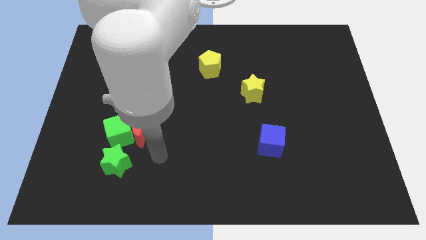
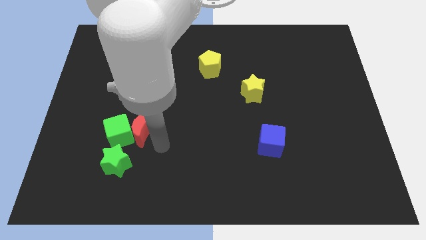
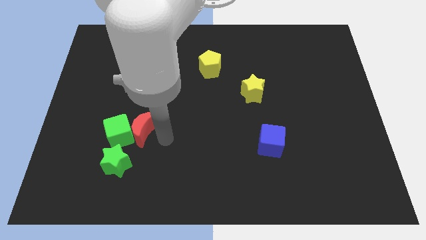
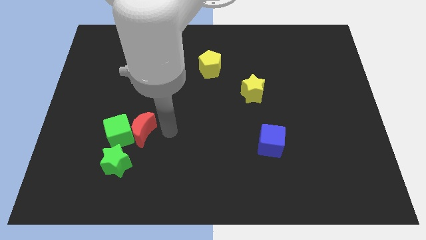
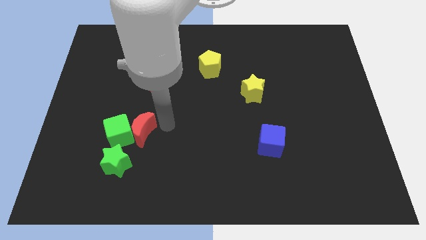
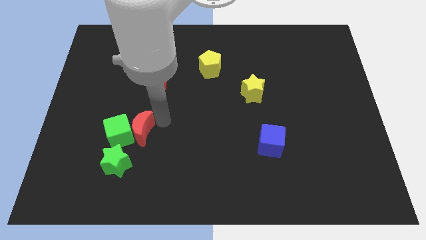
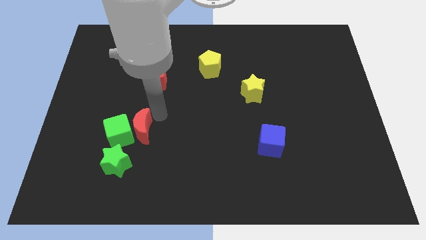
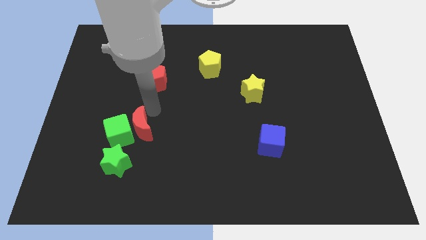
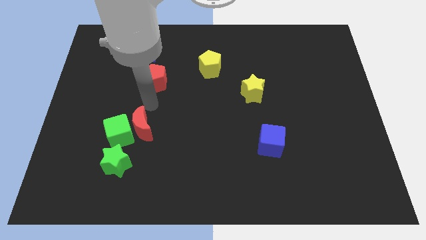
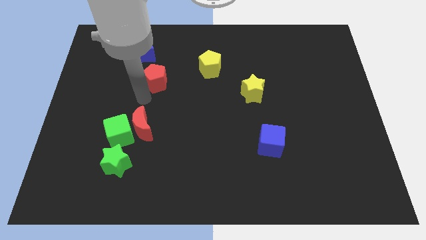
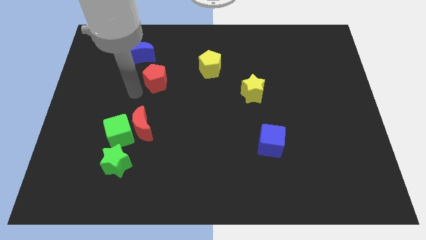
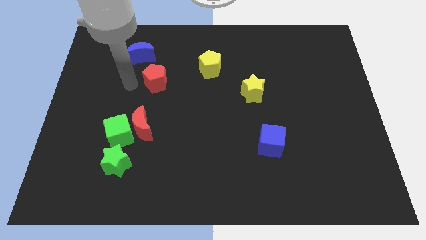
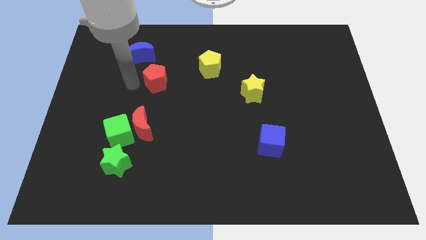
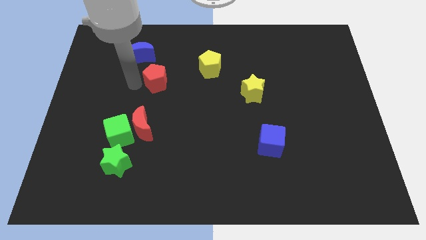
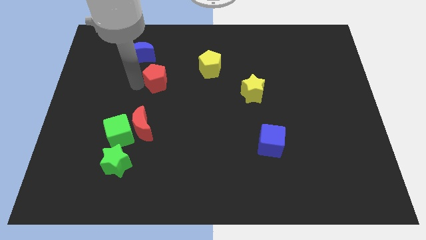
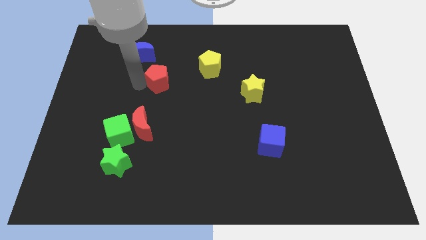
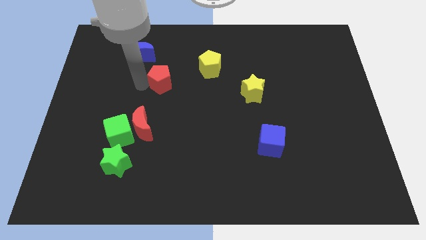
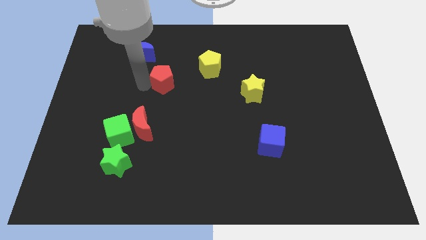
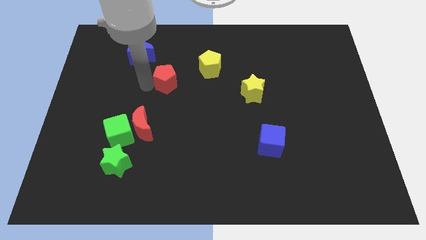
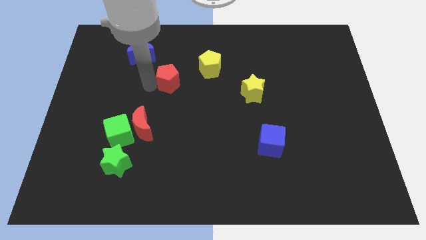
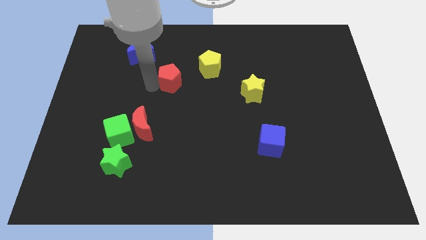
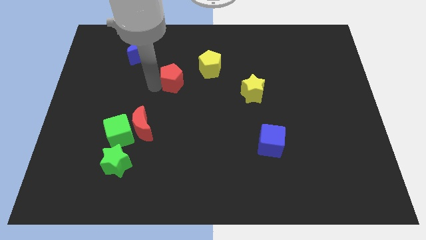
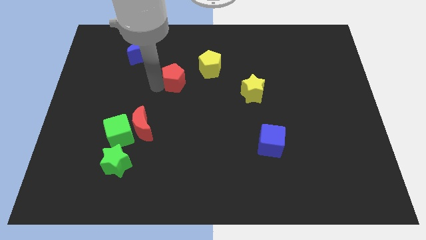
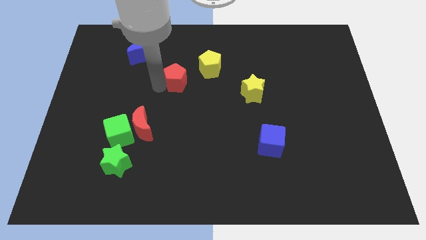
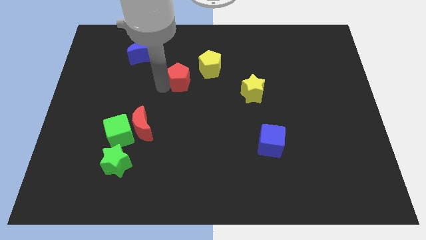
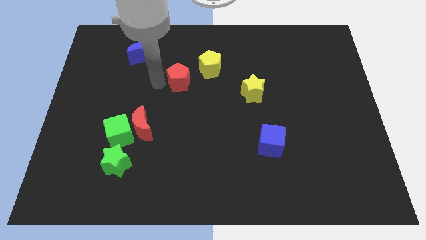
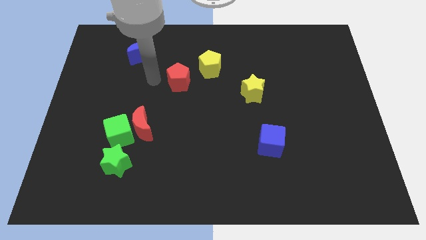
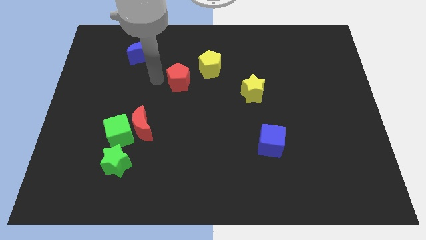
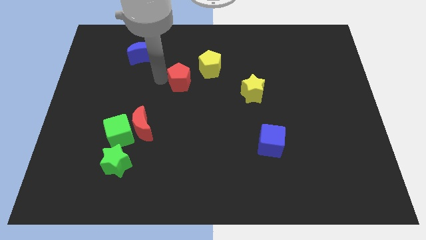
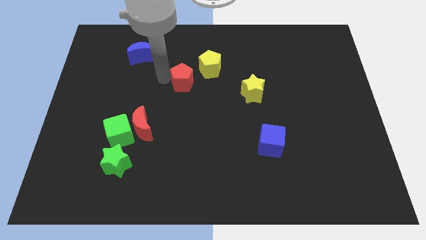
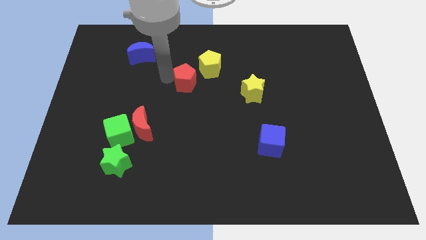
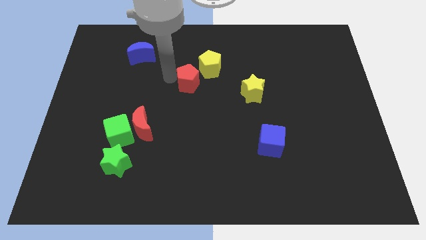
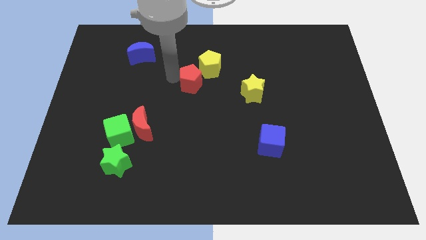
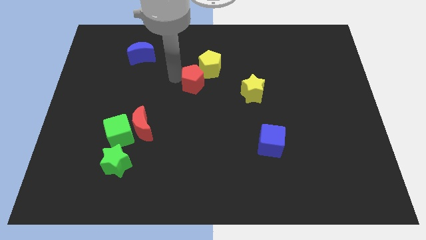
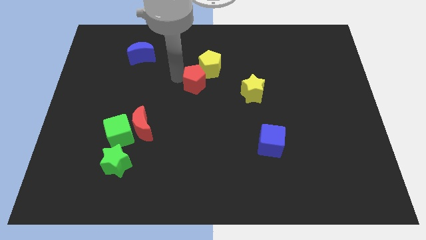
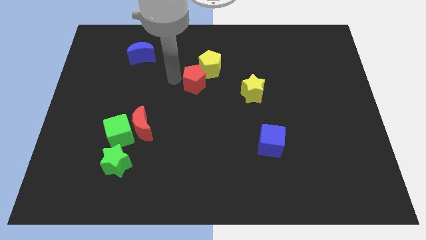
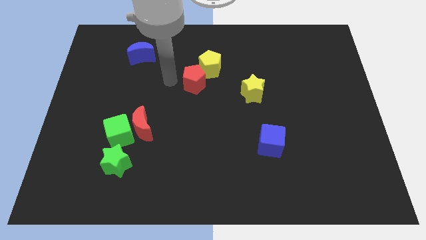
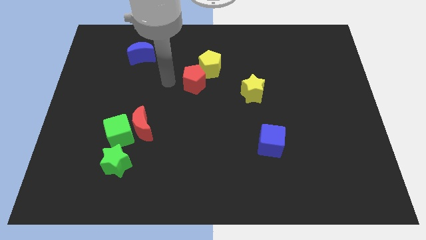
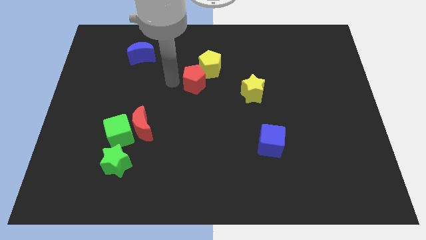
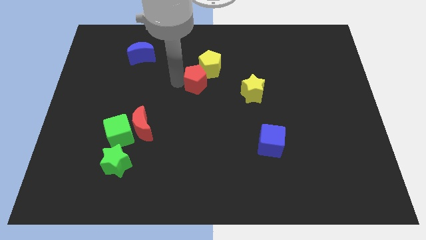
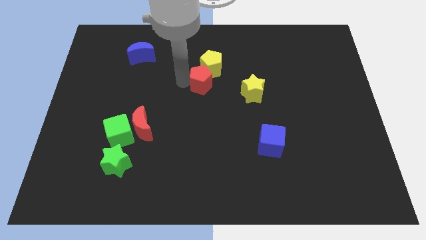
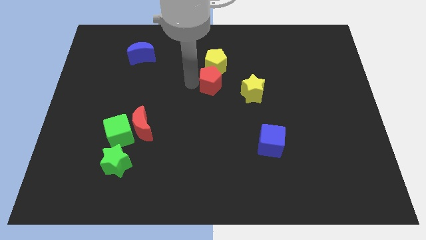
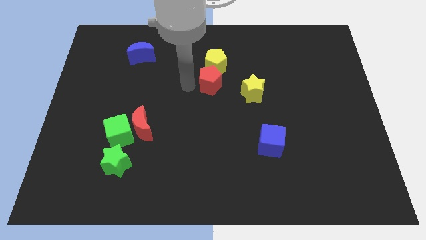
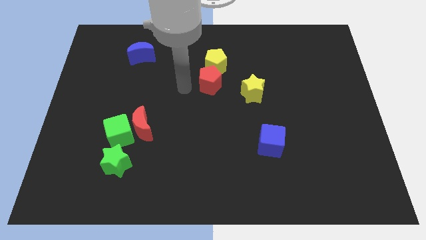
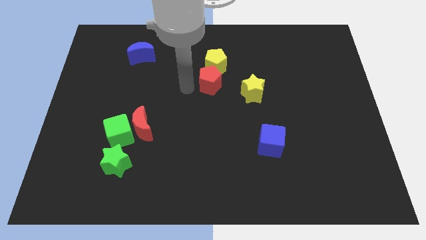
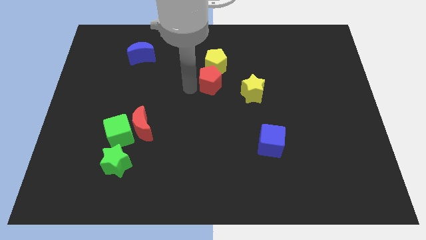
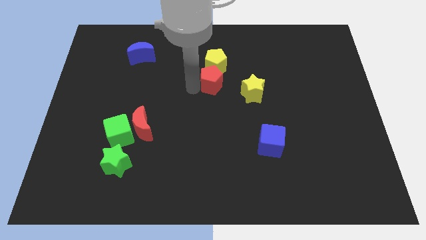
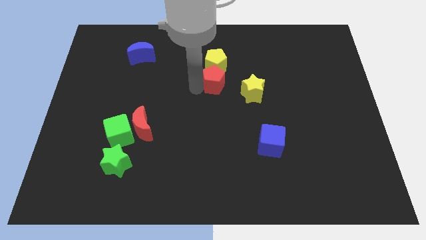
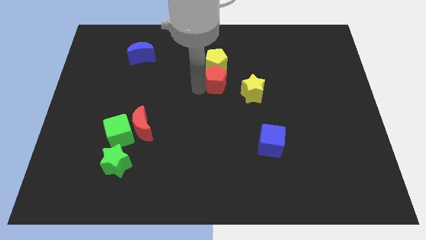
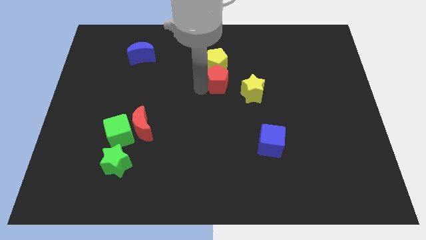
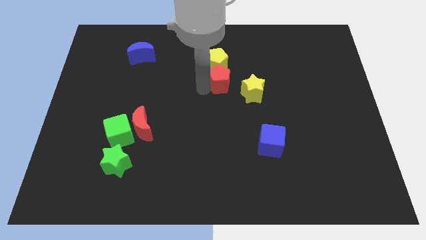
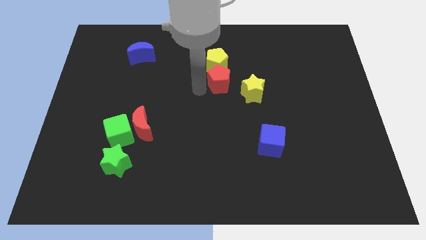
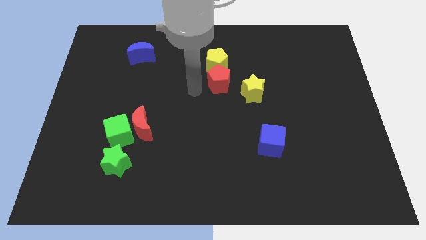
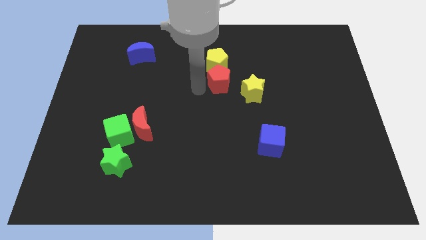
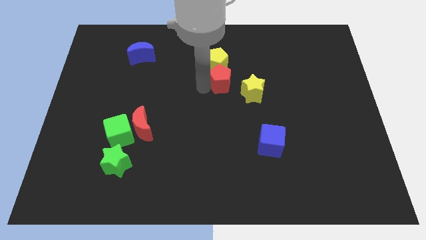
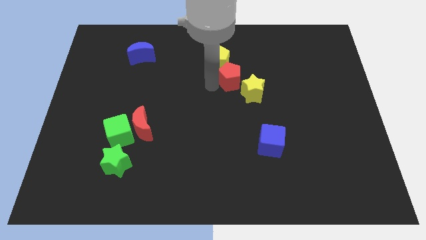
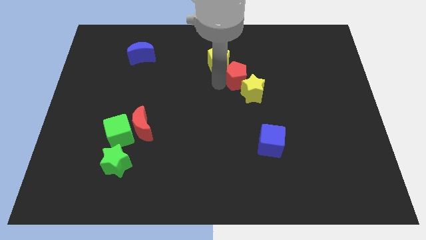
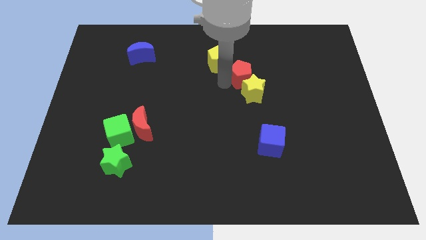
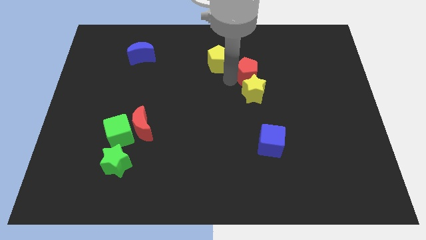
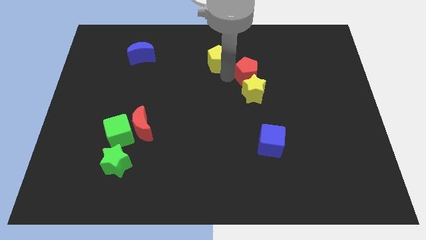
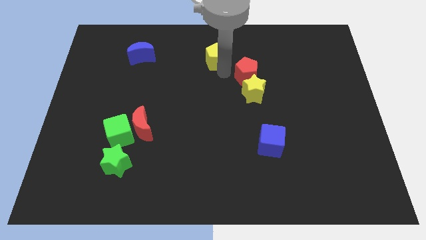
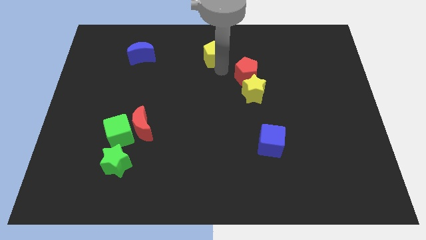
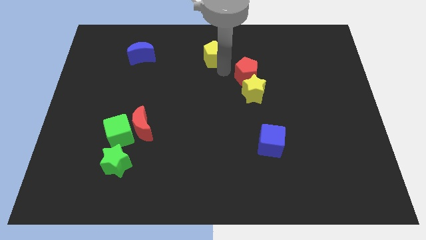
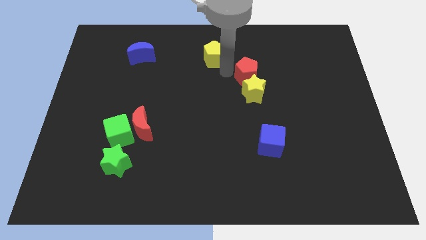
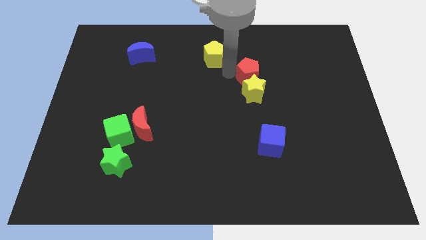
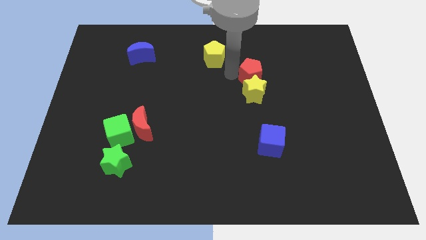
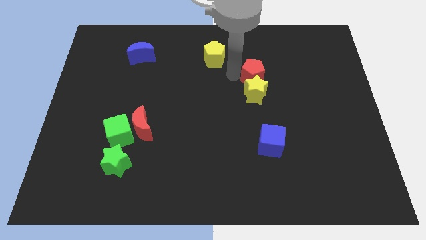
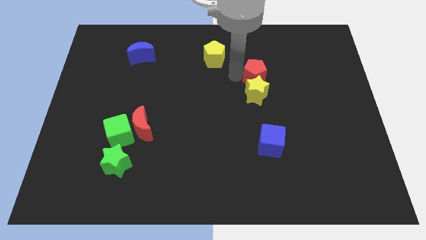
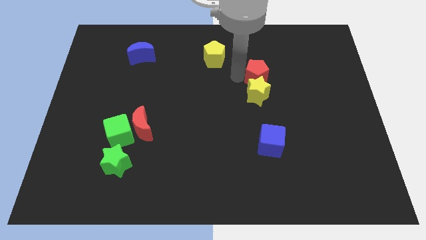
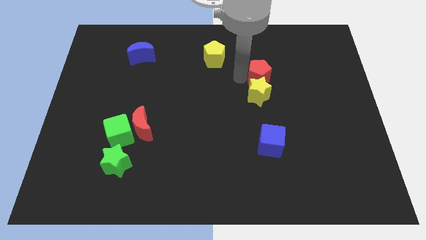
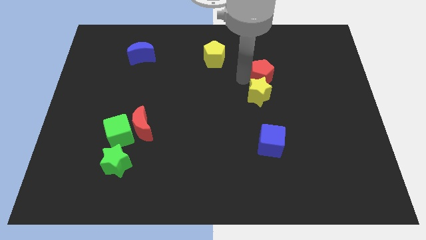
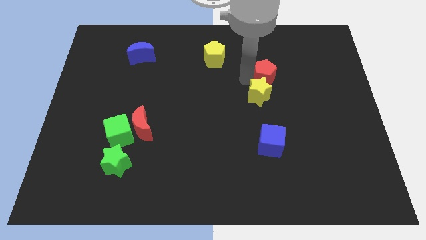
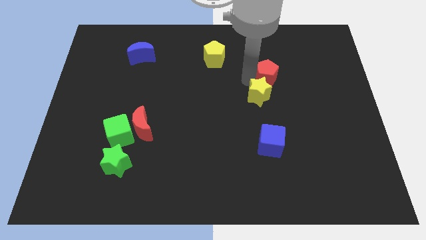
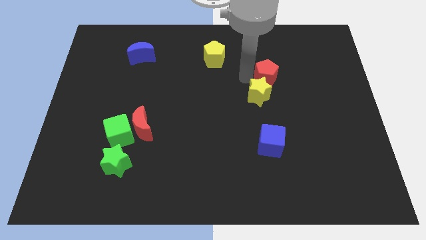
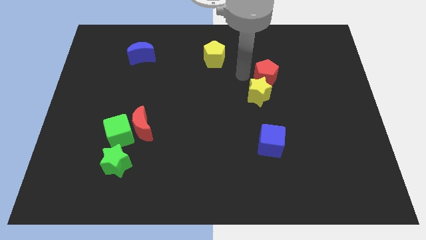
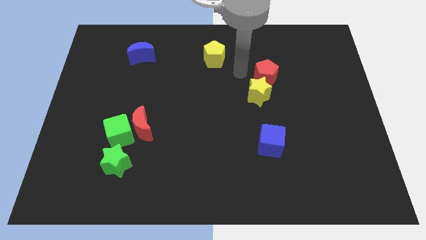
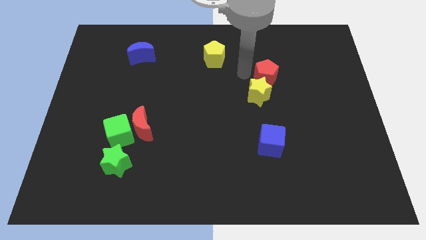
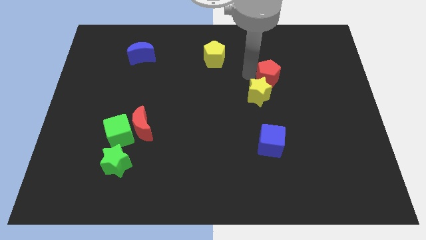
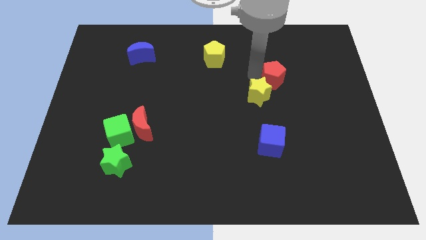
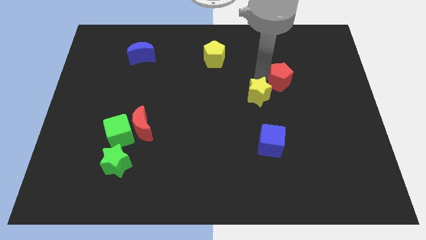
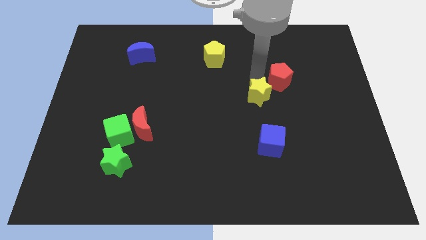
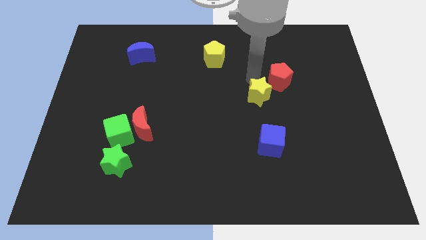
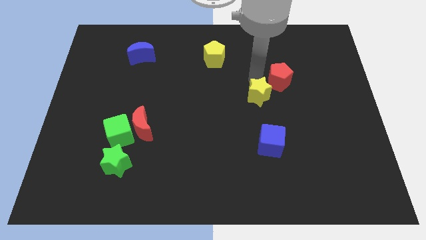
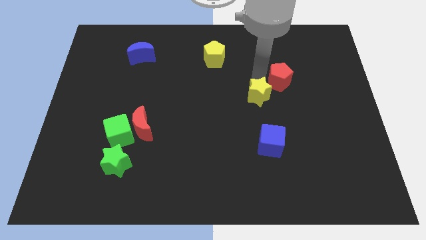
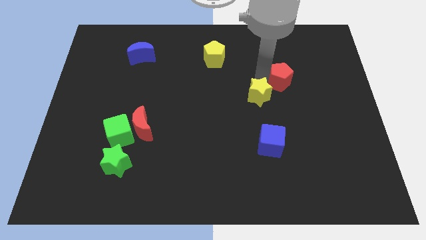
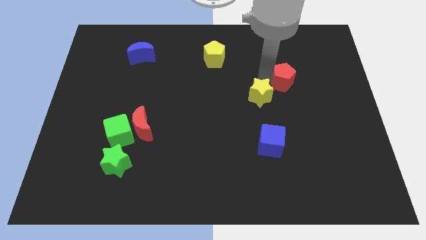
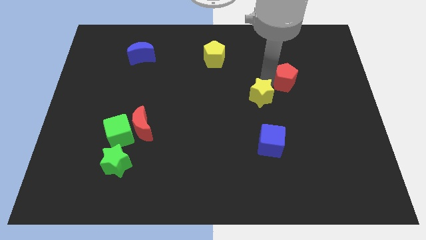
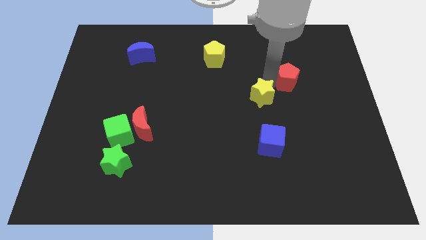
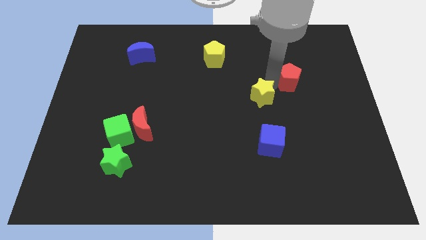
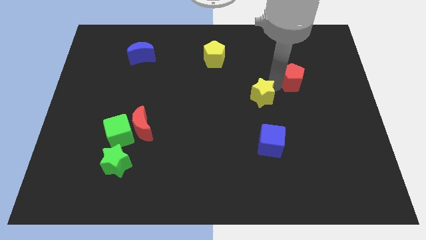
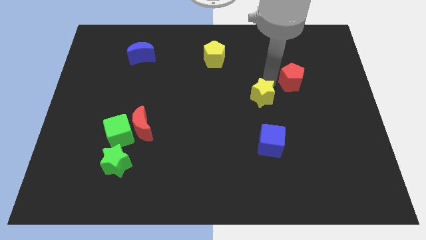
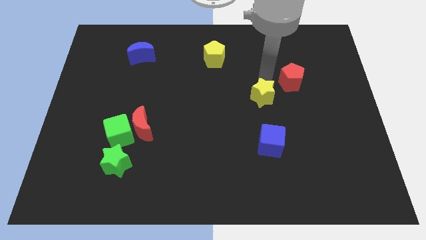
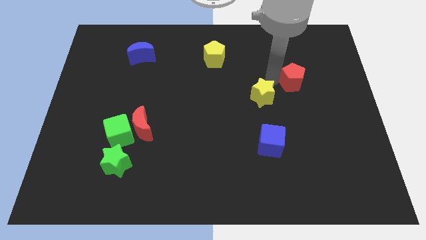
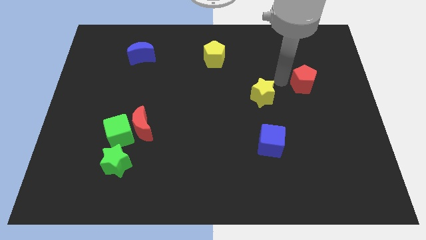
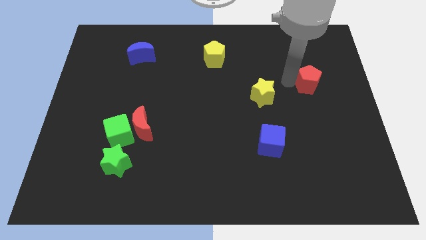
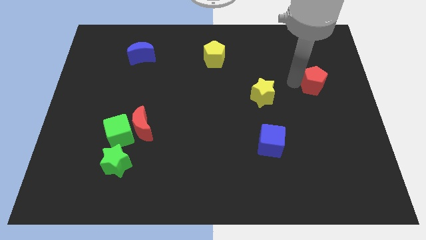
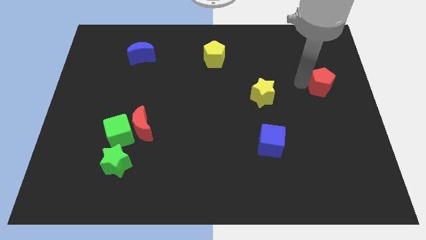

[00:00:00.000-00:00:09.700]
put the red pentagon to the center right
